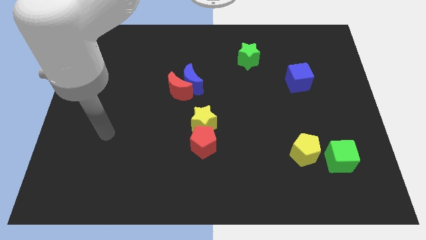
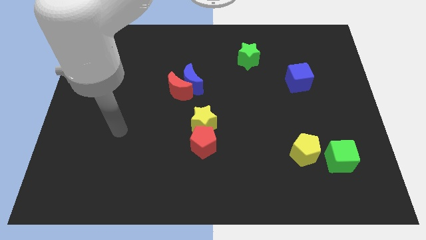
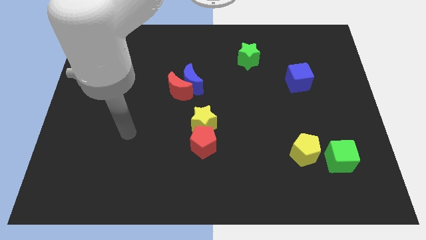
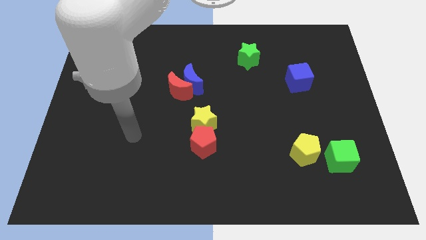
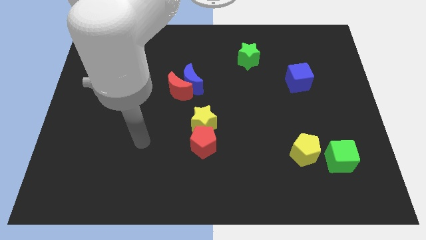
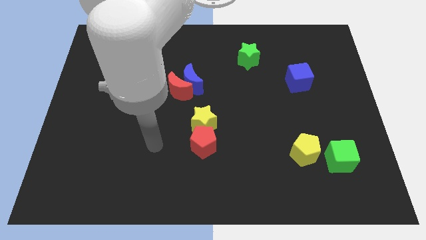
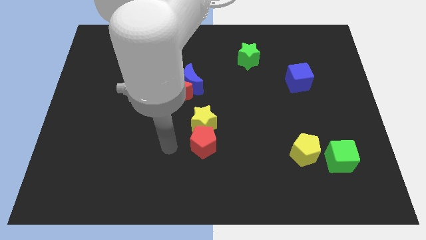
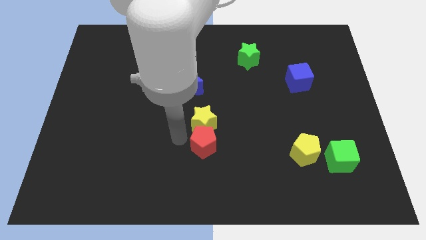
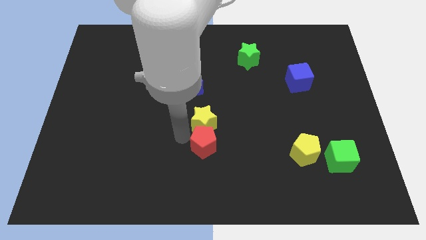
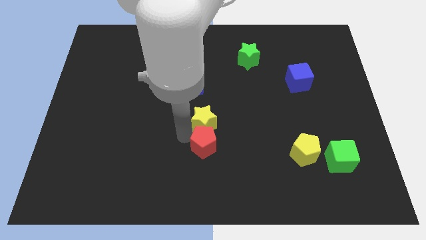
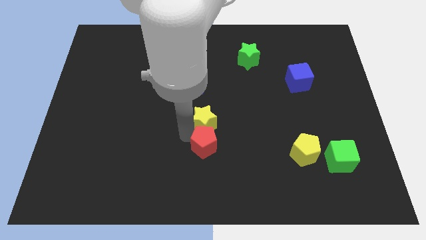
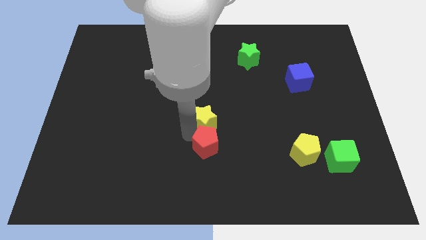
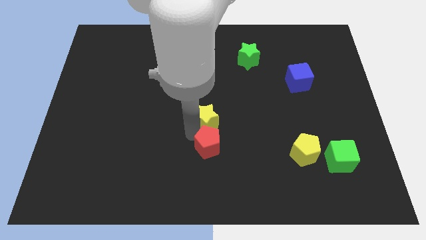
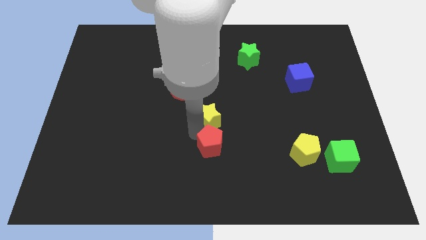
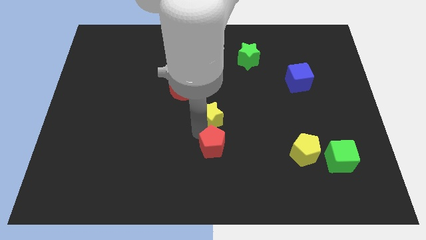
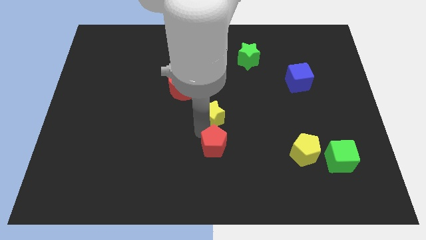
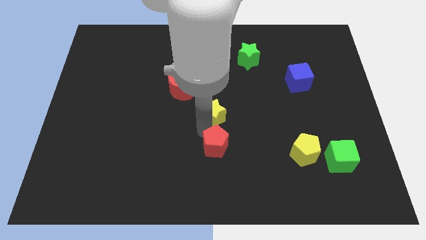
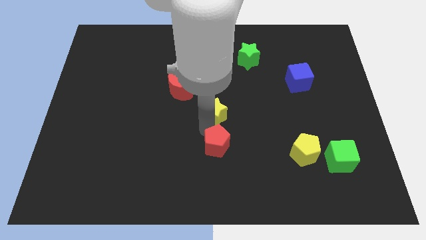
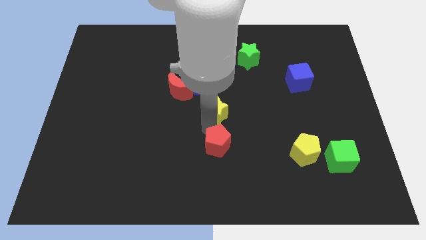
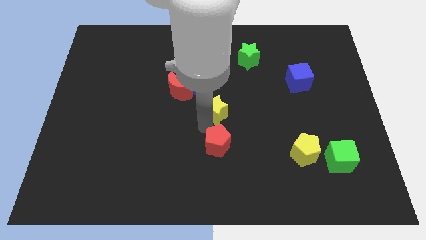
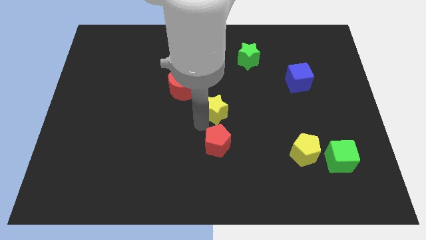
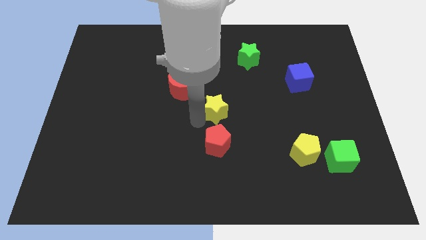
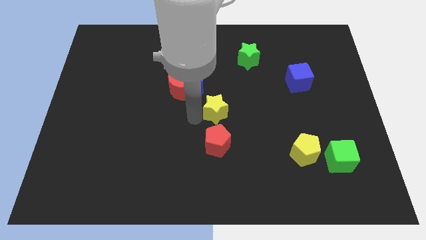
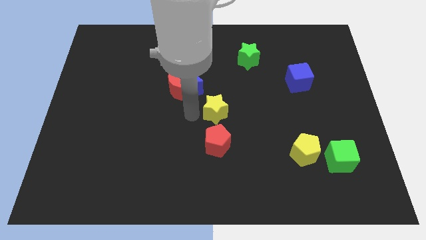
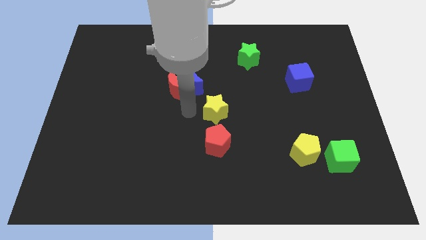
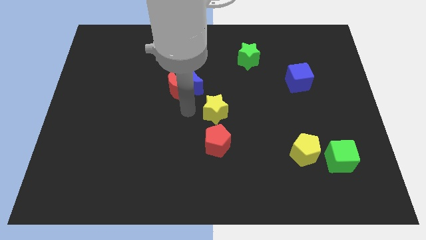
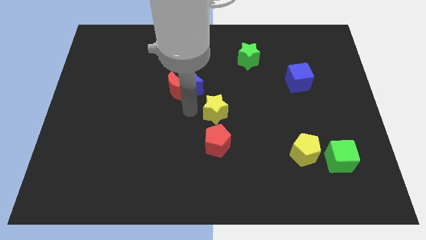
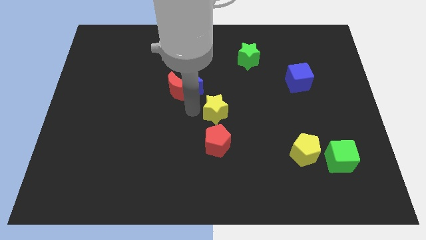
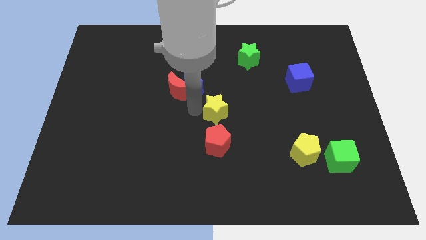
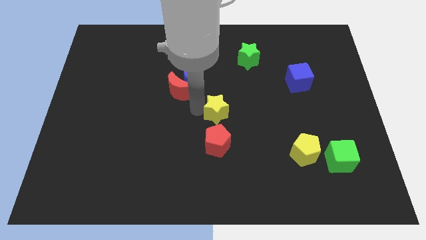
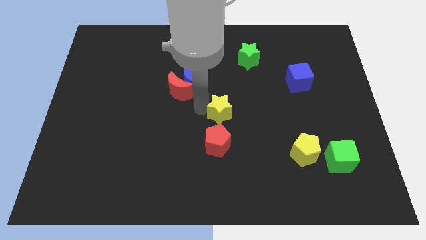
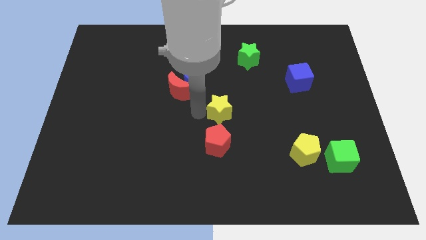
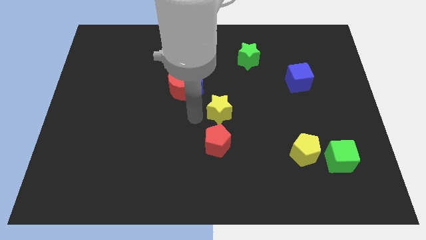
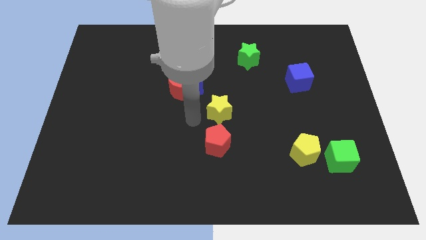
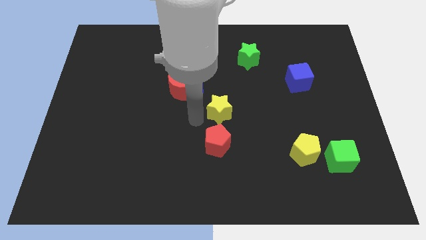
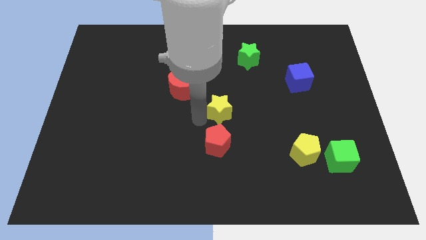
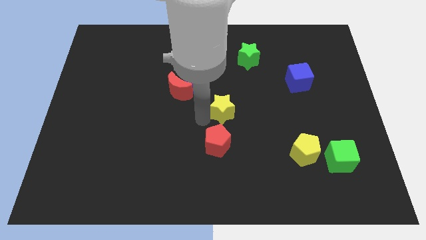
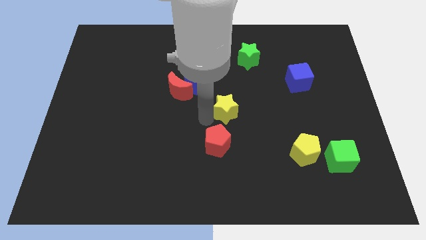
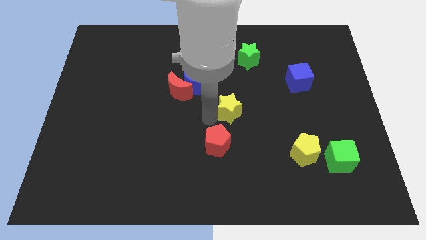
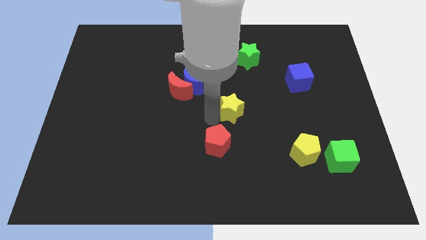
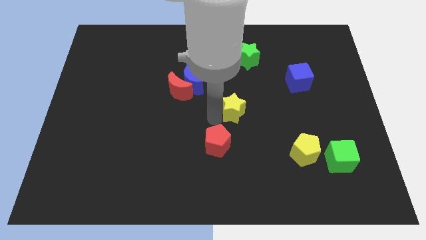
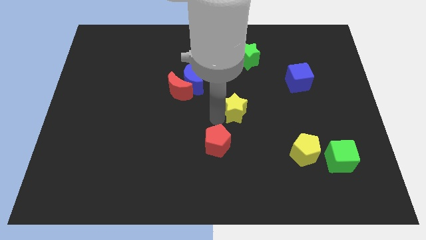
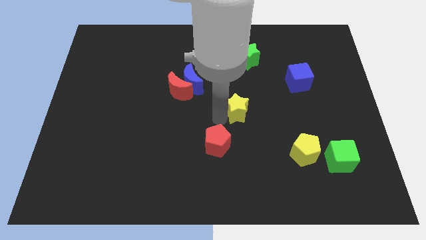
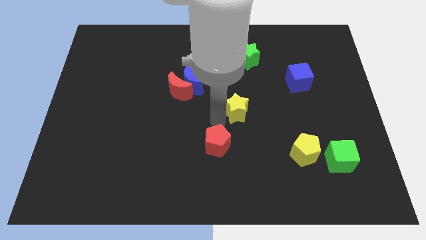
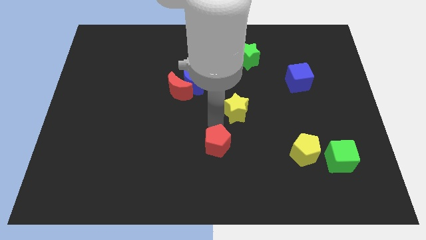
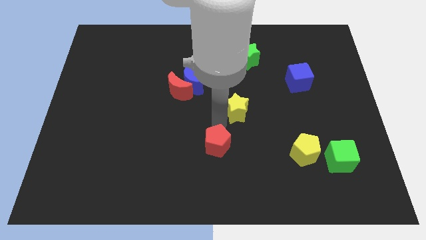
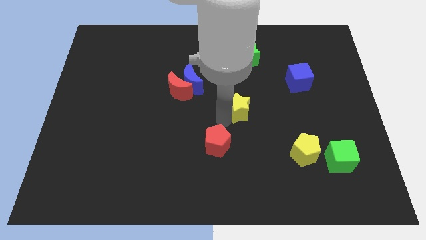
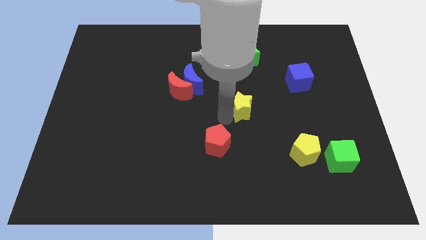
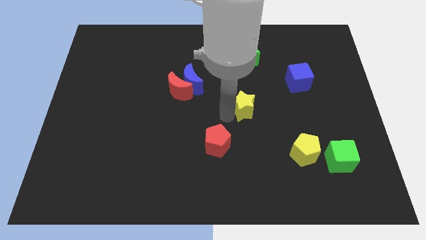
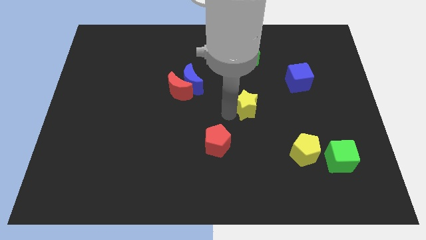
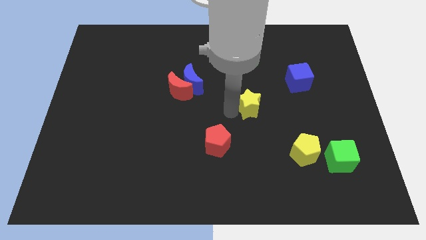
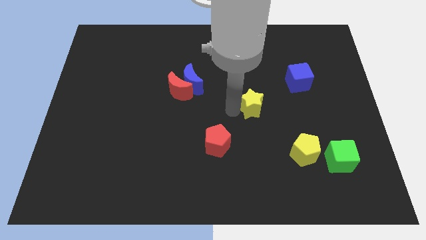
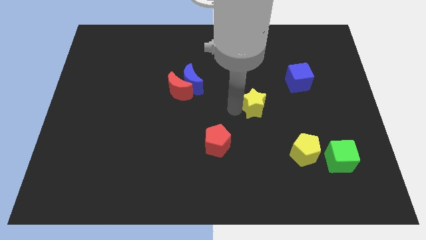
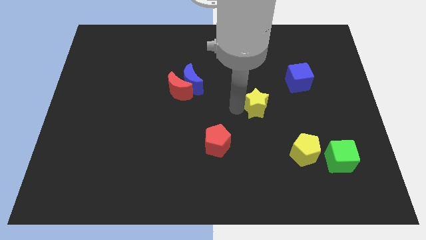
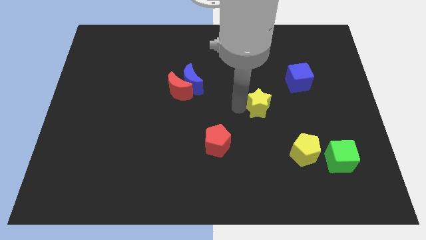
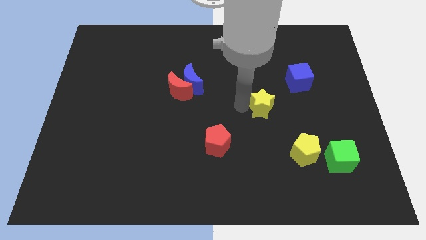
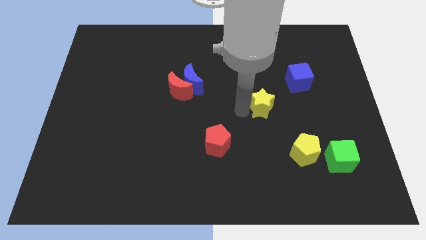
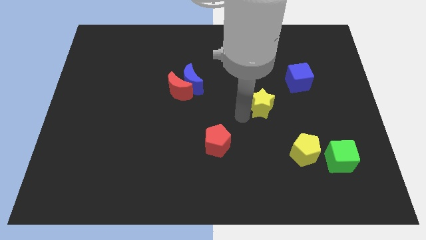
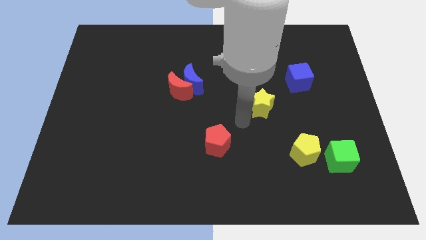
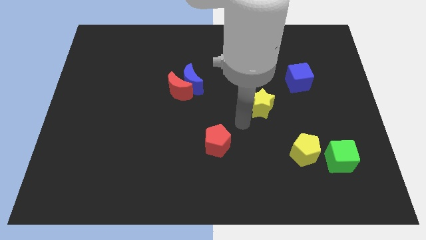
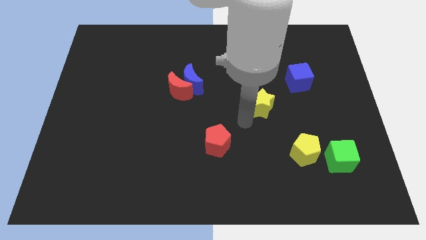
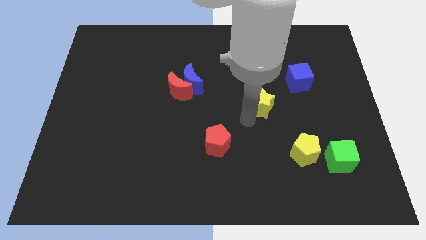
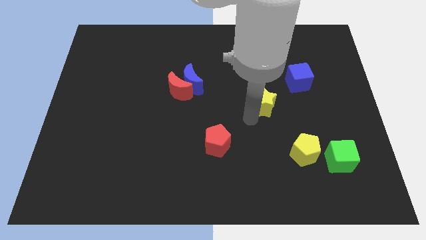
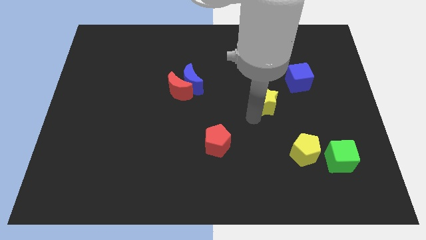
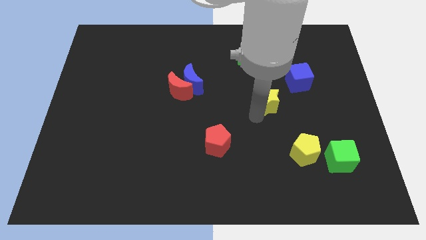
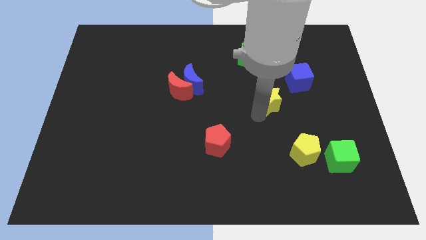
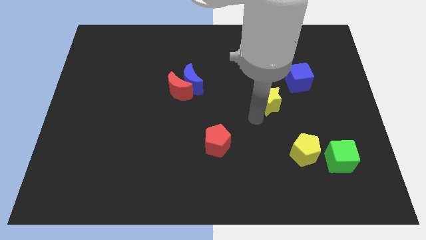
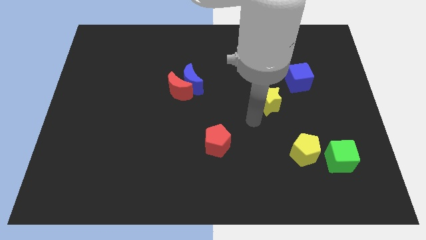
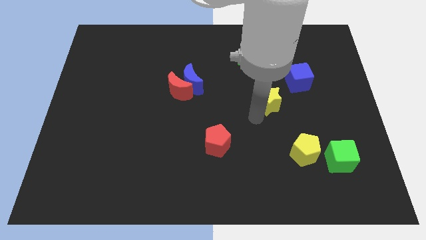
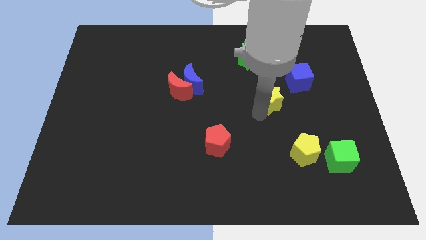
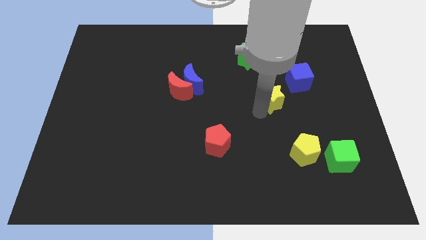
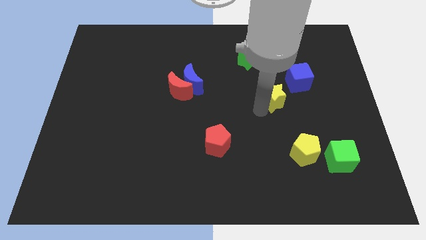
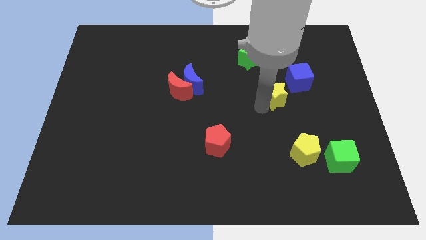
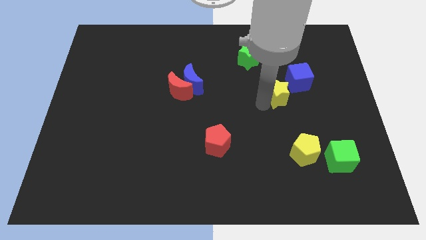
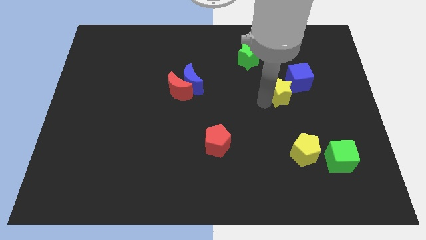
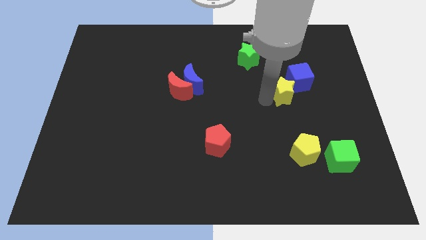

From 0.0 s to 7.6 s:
put the yellow star to the blue cube
